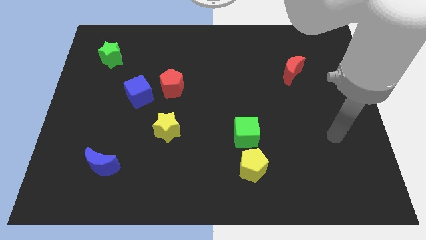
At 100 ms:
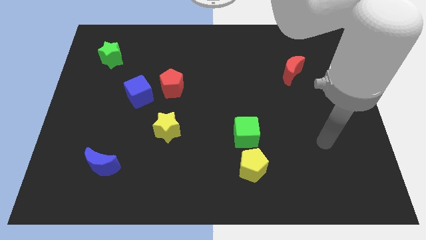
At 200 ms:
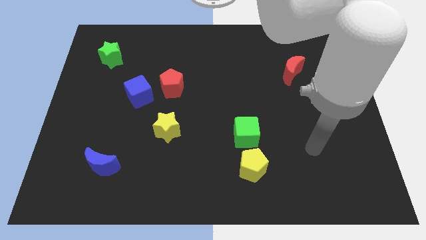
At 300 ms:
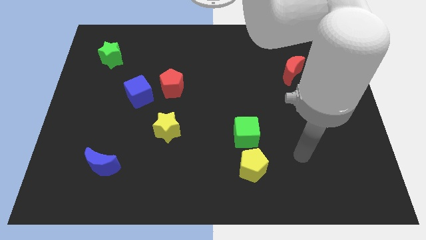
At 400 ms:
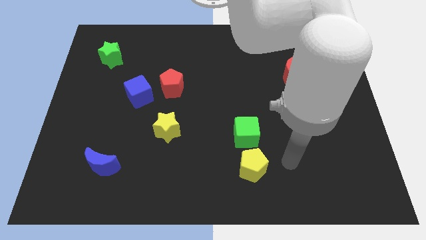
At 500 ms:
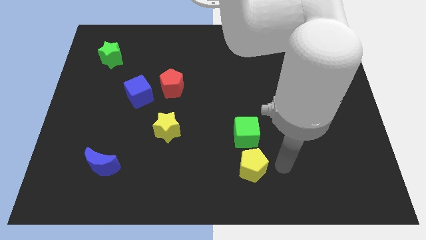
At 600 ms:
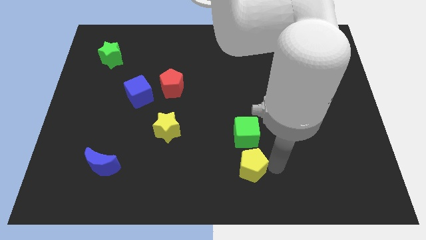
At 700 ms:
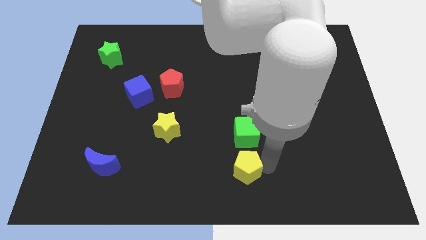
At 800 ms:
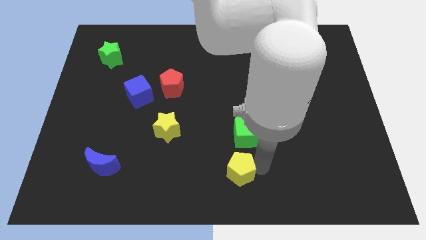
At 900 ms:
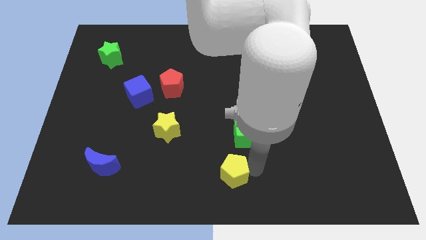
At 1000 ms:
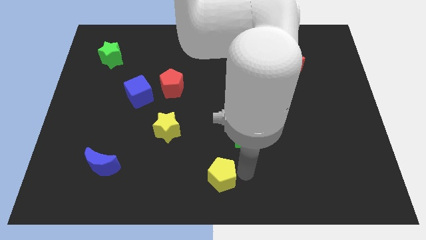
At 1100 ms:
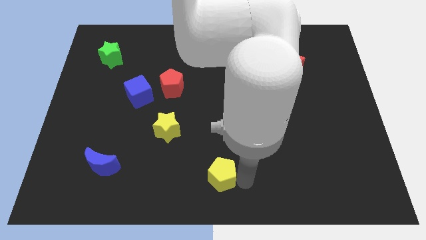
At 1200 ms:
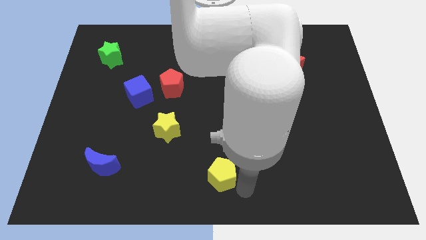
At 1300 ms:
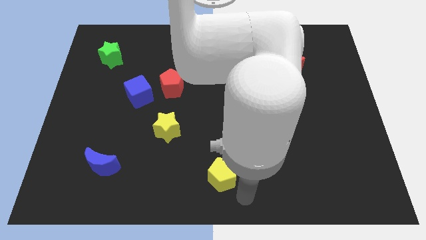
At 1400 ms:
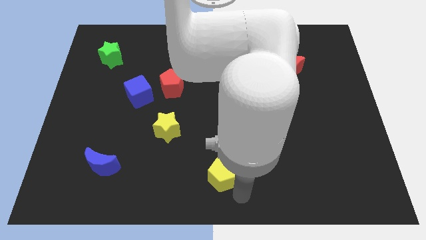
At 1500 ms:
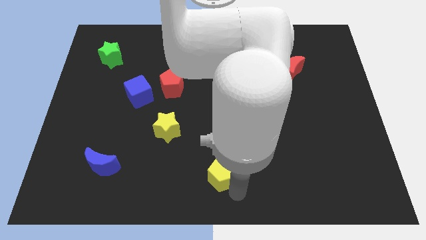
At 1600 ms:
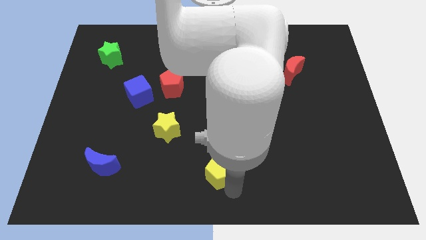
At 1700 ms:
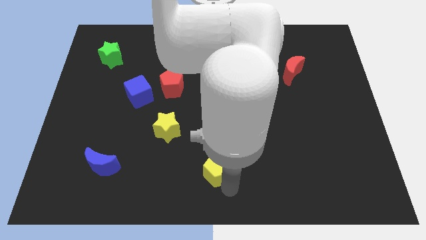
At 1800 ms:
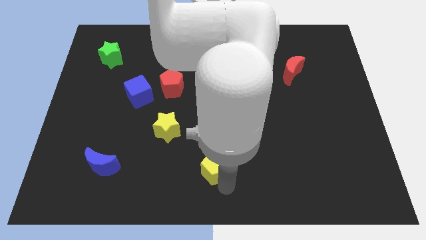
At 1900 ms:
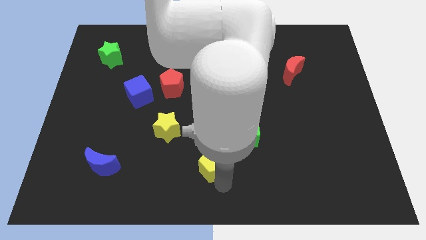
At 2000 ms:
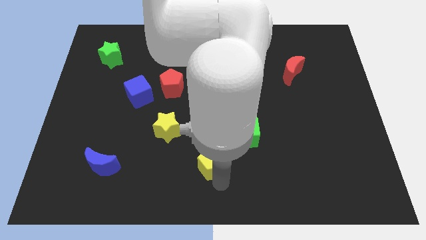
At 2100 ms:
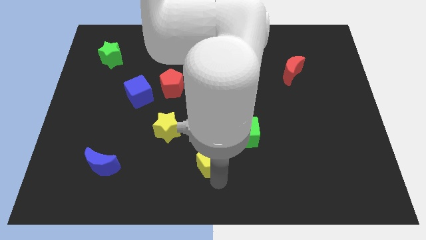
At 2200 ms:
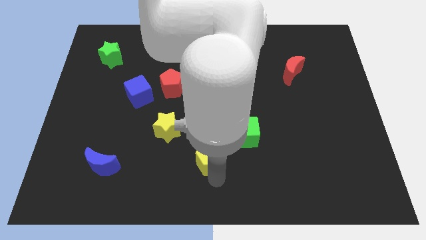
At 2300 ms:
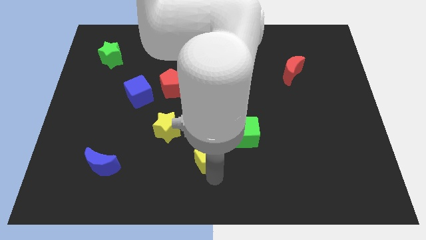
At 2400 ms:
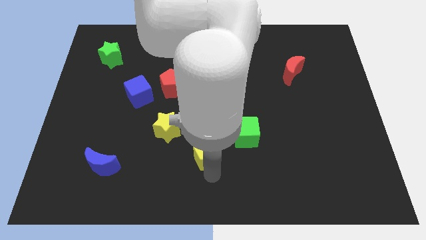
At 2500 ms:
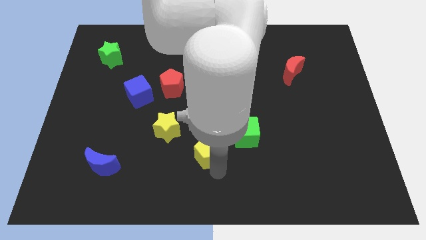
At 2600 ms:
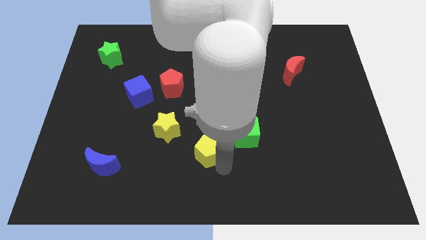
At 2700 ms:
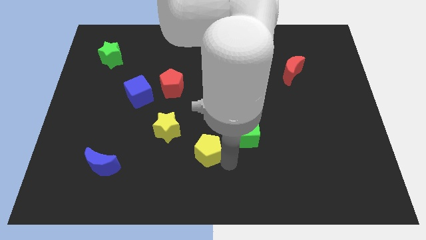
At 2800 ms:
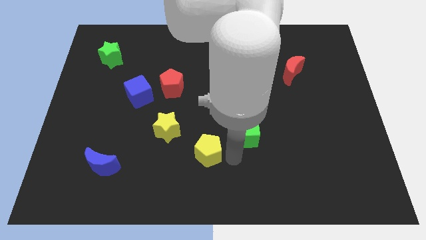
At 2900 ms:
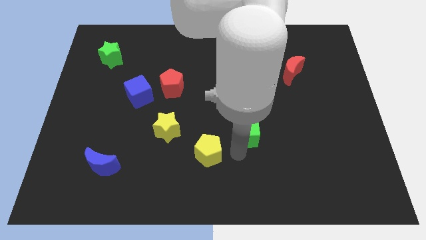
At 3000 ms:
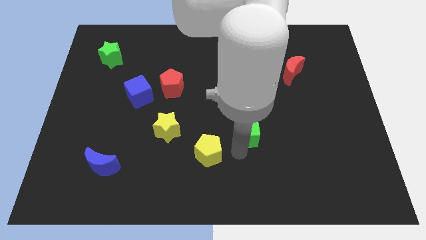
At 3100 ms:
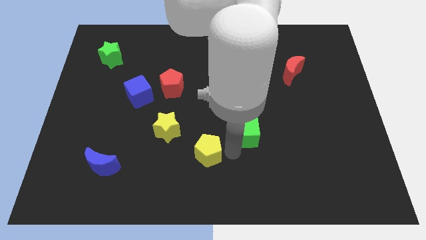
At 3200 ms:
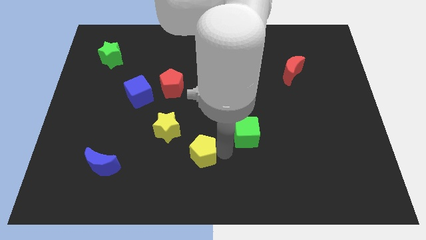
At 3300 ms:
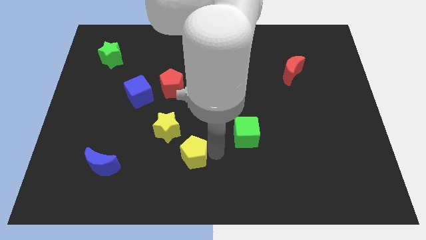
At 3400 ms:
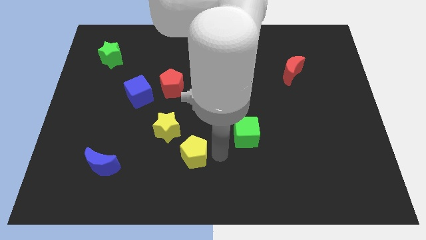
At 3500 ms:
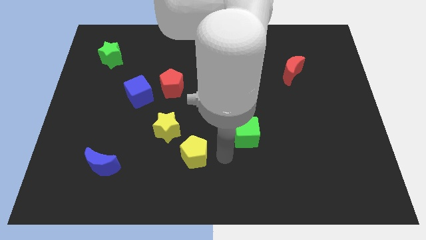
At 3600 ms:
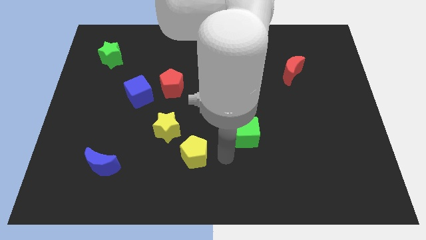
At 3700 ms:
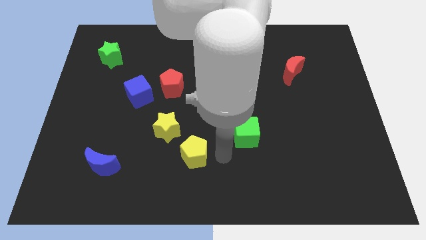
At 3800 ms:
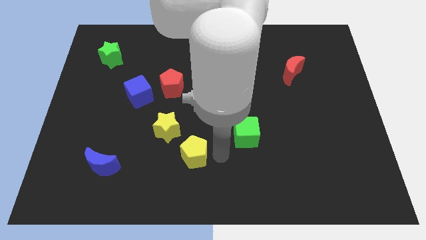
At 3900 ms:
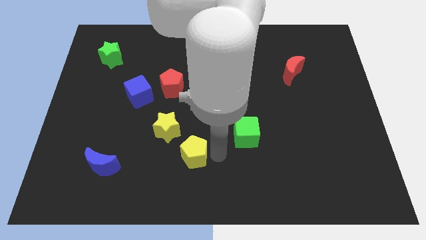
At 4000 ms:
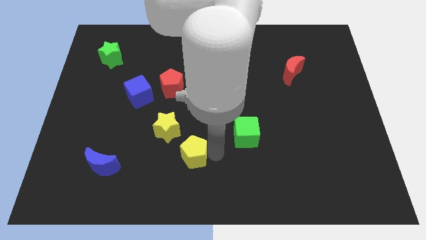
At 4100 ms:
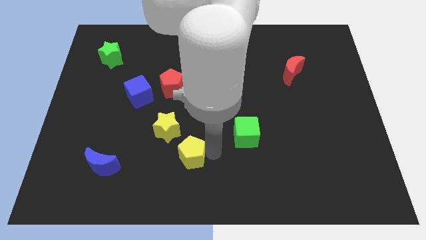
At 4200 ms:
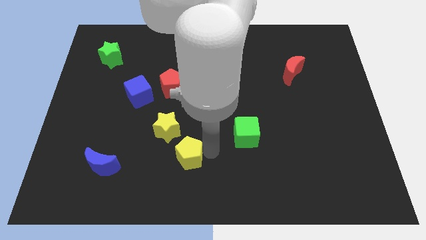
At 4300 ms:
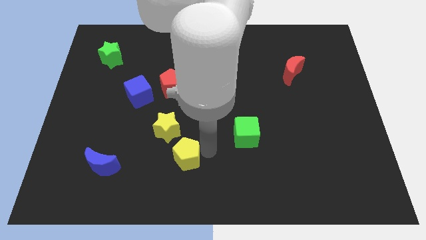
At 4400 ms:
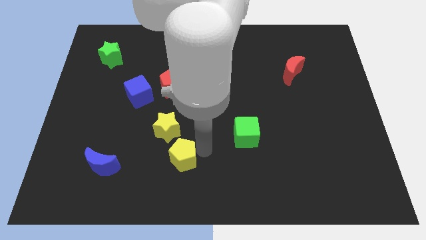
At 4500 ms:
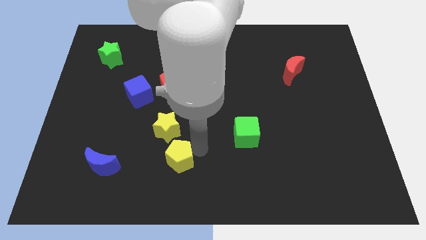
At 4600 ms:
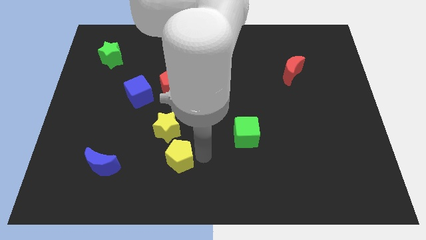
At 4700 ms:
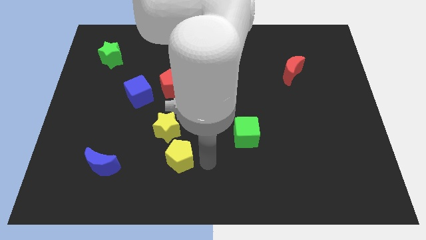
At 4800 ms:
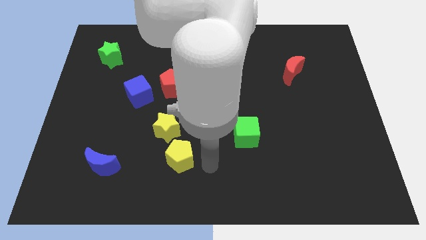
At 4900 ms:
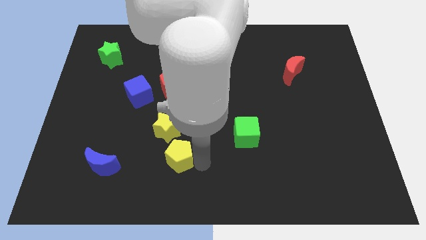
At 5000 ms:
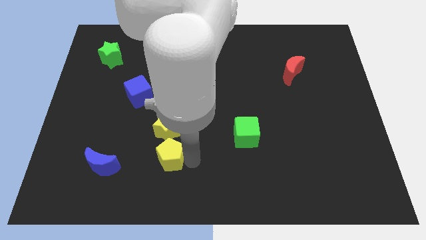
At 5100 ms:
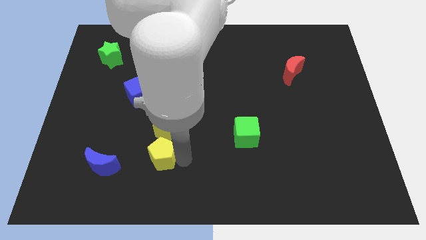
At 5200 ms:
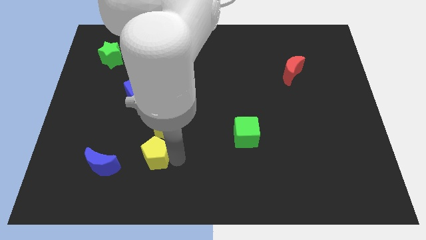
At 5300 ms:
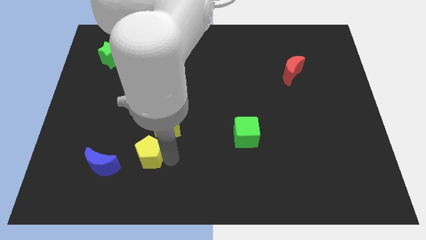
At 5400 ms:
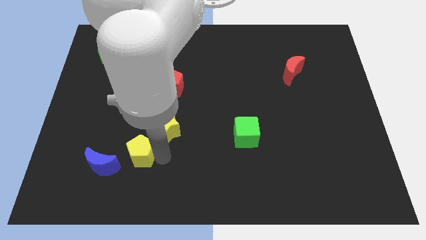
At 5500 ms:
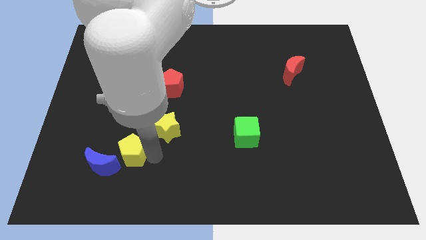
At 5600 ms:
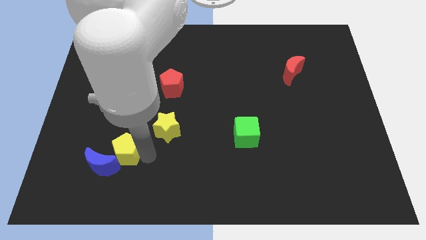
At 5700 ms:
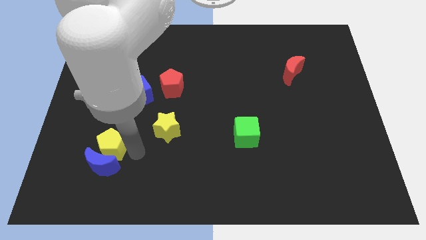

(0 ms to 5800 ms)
move the yellow pentagon to the top left side of the blue moon
